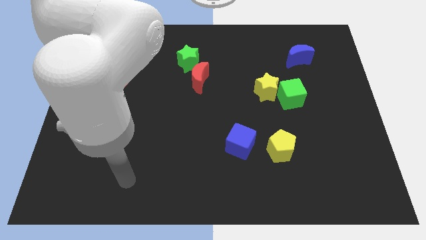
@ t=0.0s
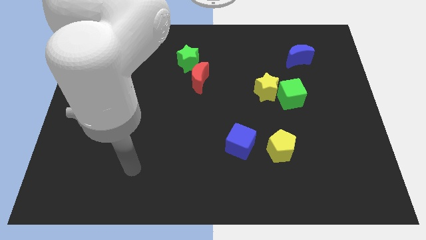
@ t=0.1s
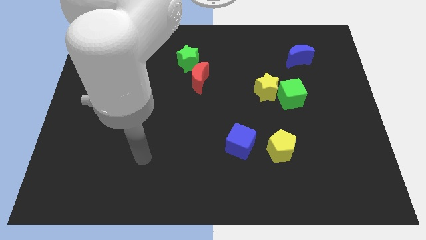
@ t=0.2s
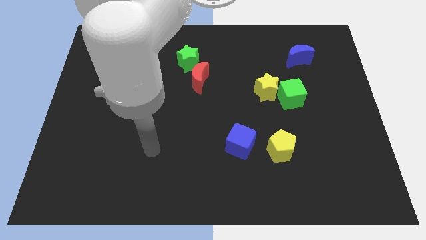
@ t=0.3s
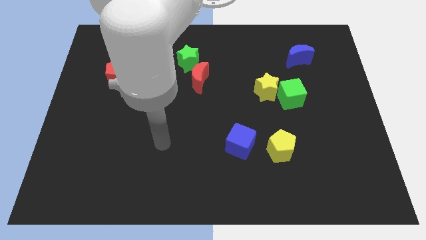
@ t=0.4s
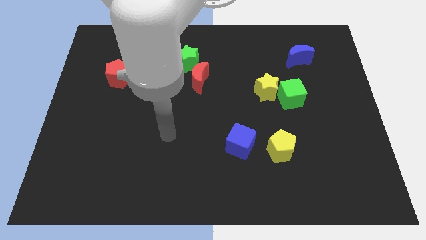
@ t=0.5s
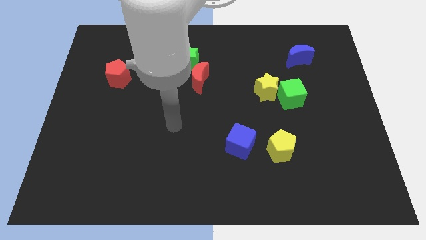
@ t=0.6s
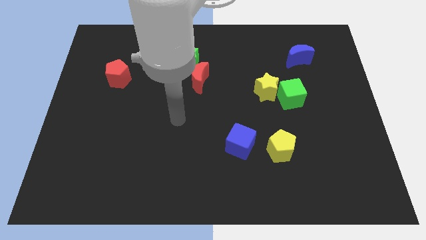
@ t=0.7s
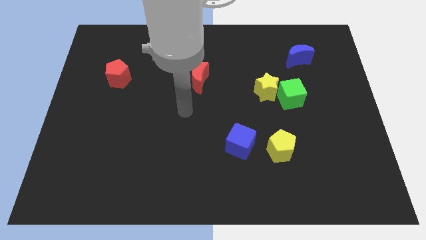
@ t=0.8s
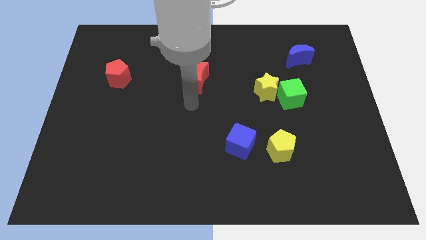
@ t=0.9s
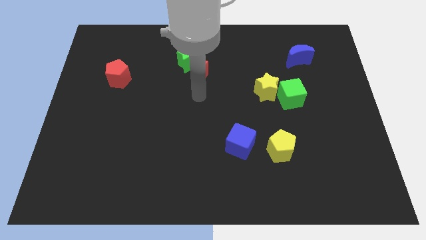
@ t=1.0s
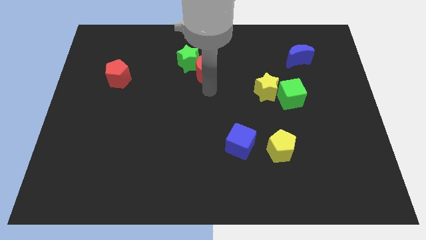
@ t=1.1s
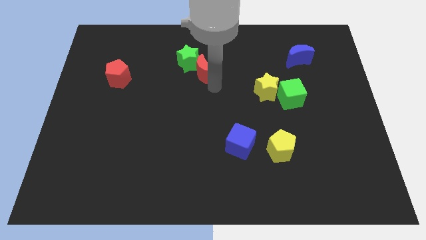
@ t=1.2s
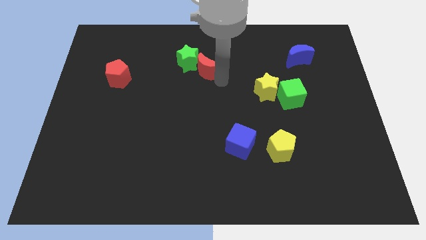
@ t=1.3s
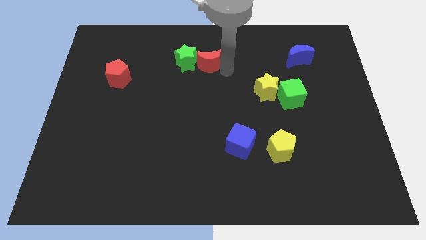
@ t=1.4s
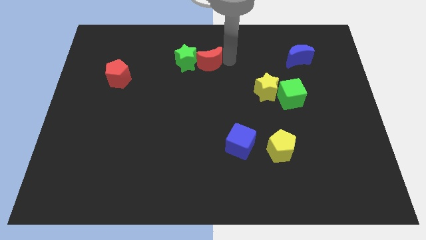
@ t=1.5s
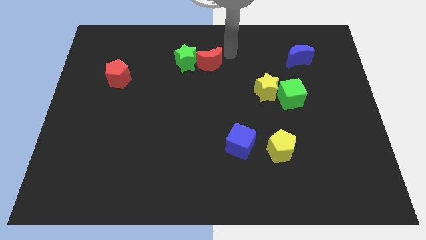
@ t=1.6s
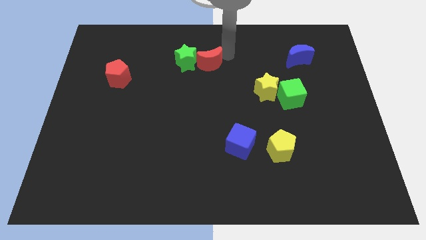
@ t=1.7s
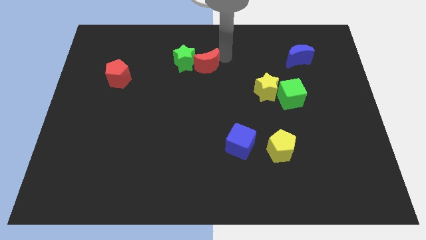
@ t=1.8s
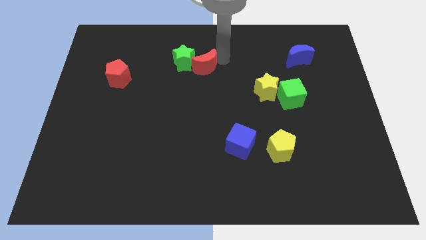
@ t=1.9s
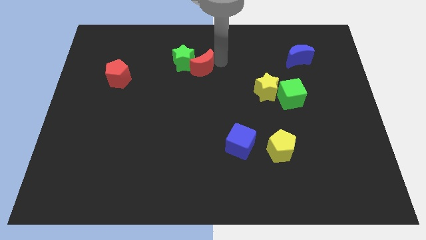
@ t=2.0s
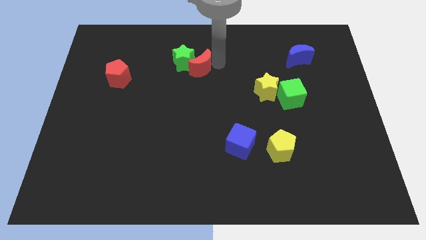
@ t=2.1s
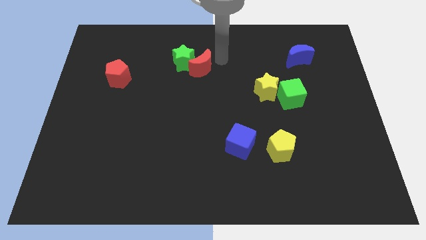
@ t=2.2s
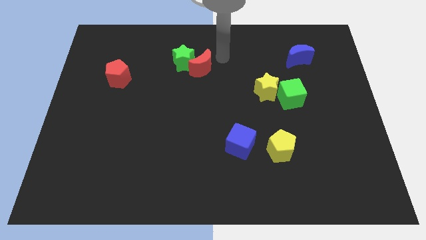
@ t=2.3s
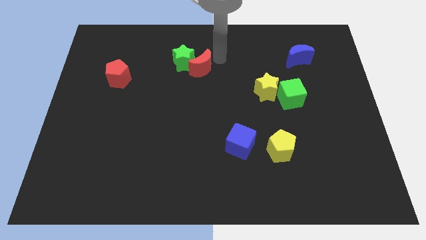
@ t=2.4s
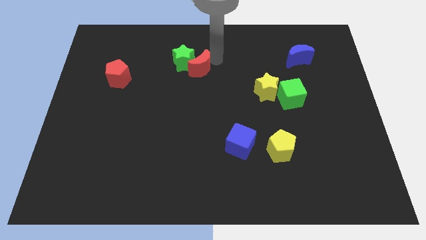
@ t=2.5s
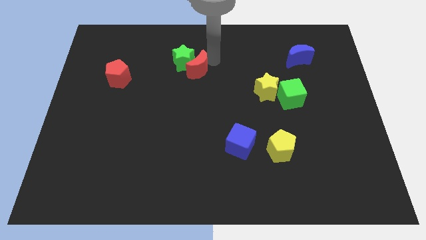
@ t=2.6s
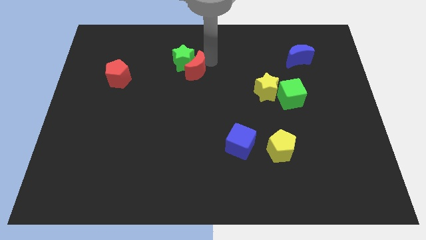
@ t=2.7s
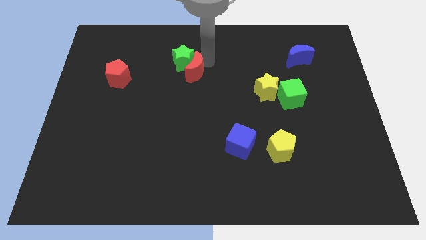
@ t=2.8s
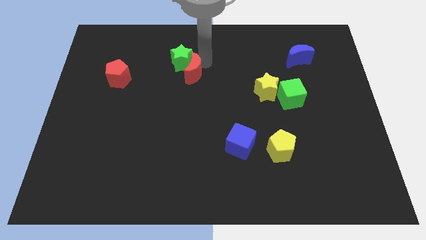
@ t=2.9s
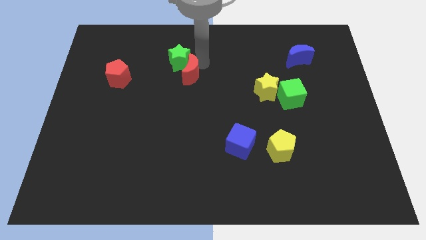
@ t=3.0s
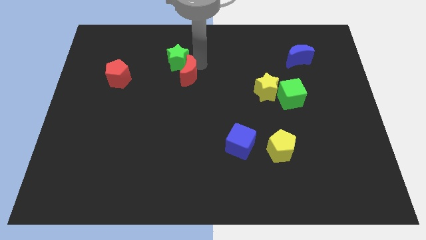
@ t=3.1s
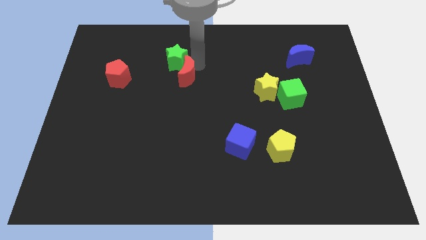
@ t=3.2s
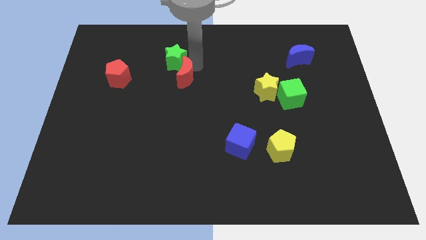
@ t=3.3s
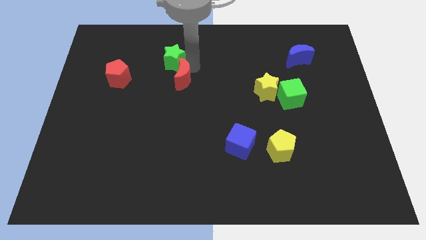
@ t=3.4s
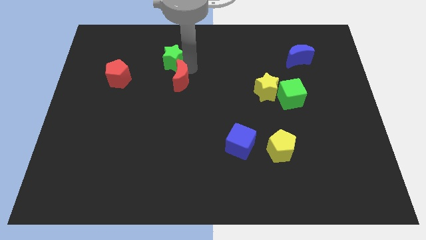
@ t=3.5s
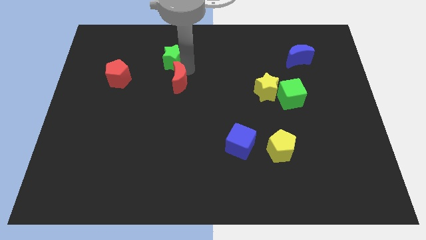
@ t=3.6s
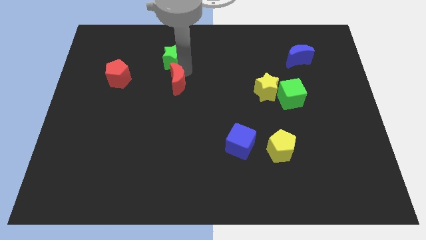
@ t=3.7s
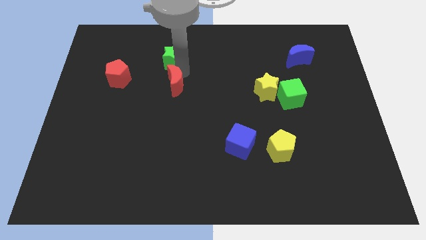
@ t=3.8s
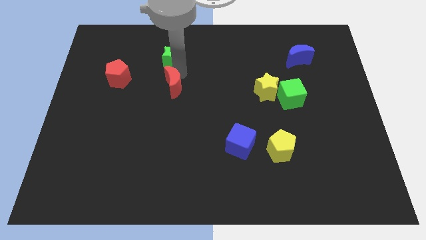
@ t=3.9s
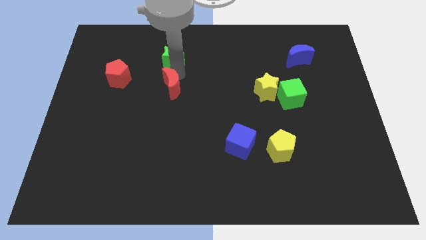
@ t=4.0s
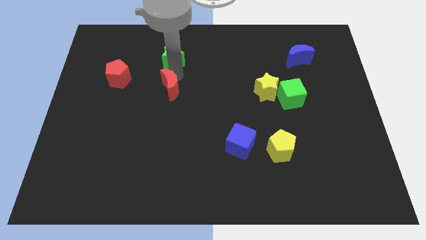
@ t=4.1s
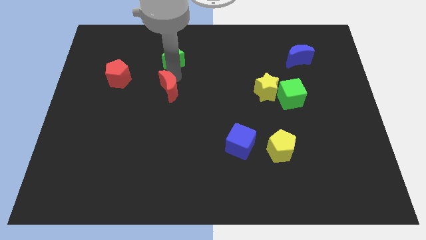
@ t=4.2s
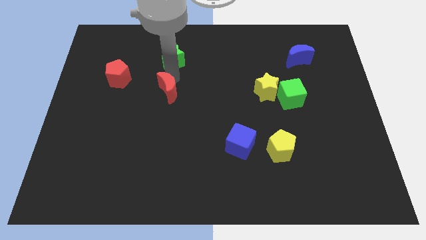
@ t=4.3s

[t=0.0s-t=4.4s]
push the red moon a little diagonally down and left

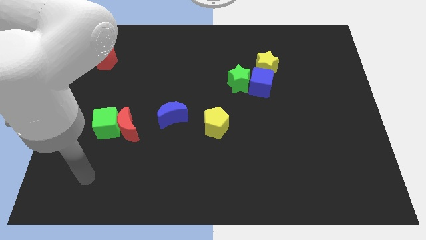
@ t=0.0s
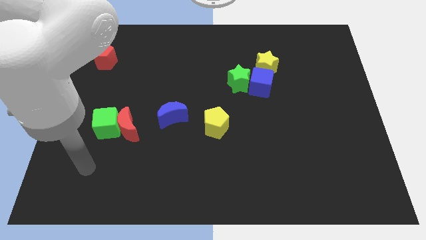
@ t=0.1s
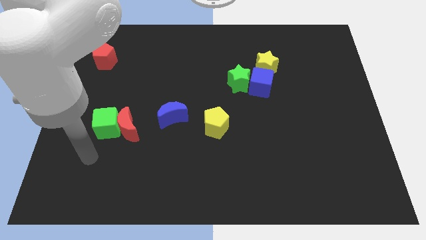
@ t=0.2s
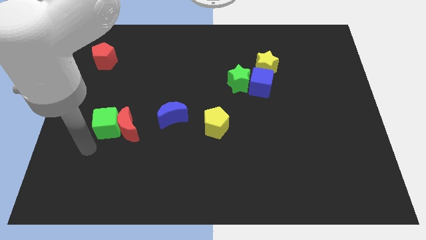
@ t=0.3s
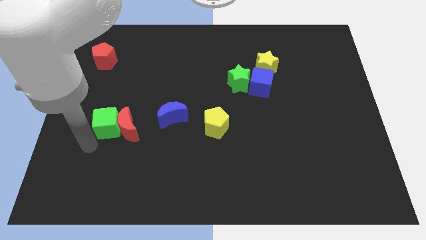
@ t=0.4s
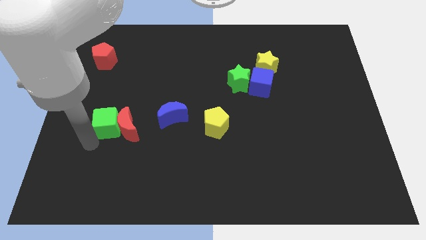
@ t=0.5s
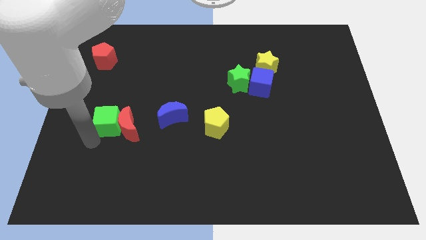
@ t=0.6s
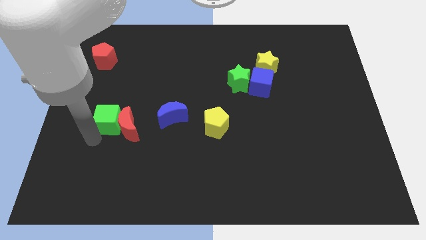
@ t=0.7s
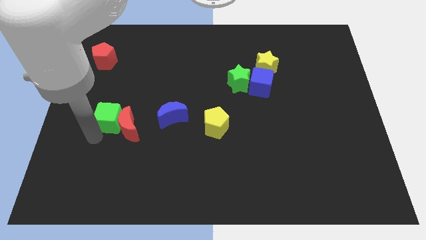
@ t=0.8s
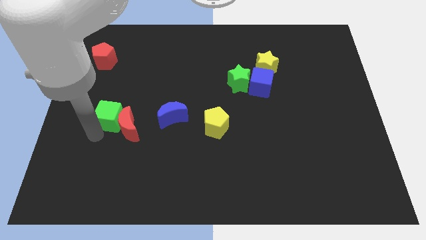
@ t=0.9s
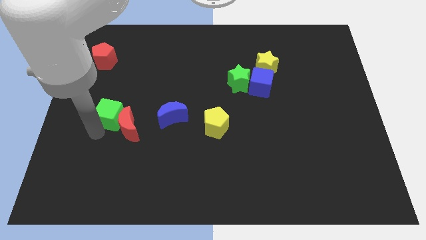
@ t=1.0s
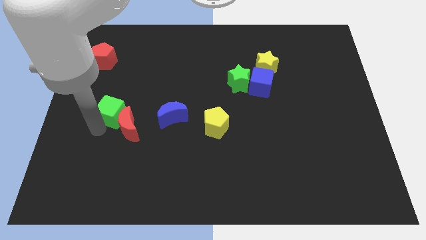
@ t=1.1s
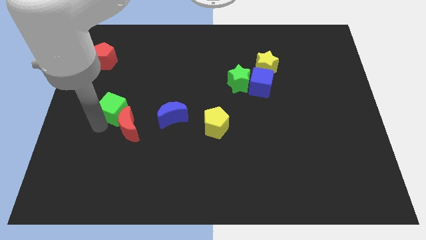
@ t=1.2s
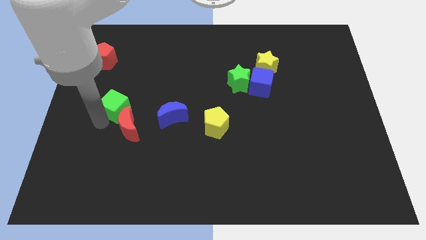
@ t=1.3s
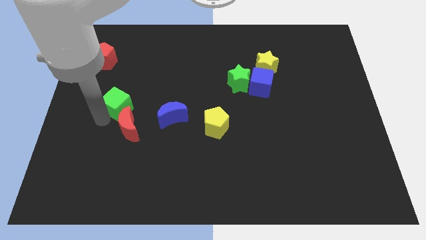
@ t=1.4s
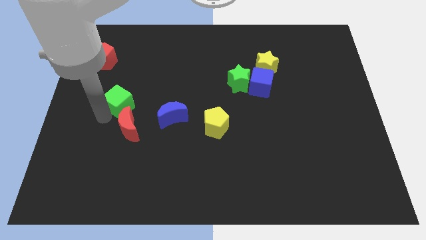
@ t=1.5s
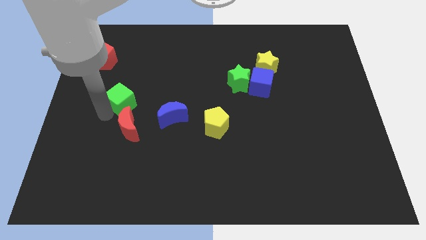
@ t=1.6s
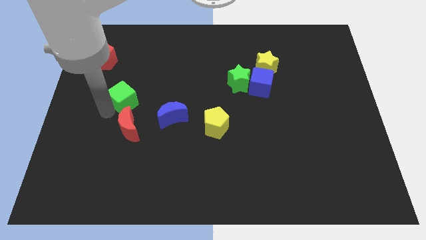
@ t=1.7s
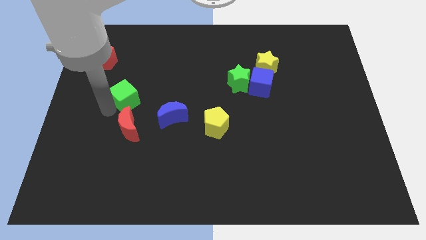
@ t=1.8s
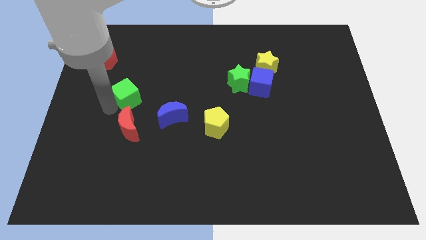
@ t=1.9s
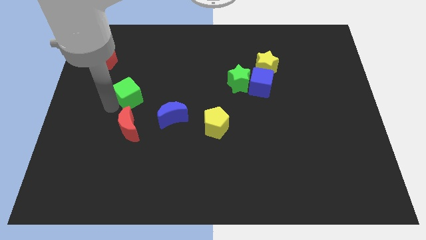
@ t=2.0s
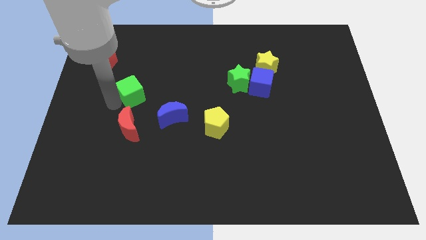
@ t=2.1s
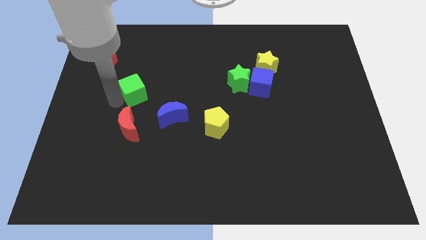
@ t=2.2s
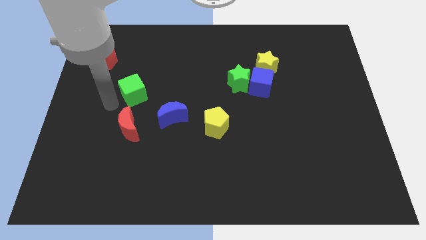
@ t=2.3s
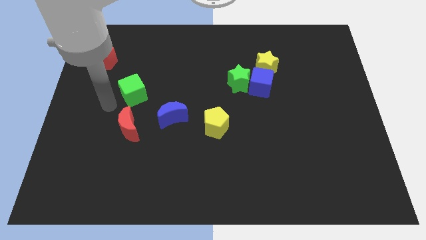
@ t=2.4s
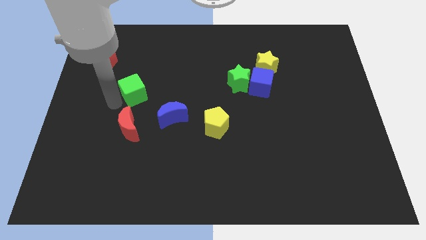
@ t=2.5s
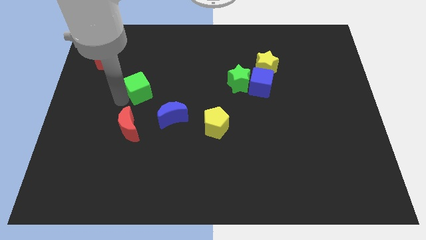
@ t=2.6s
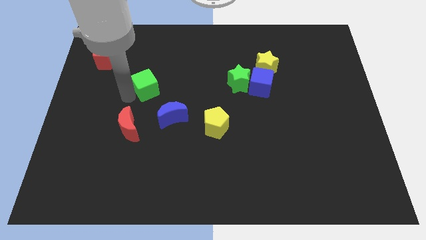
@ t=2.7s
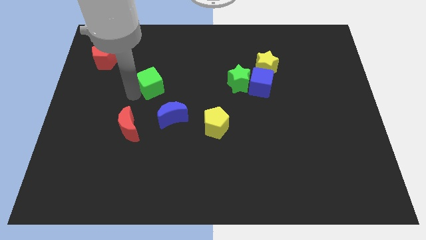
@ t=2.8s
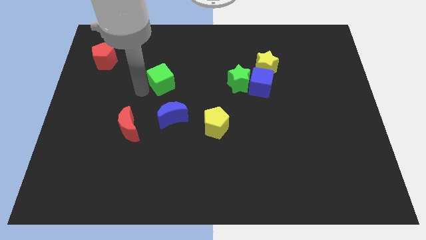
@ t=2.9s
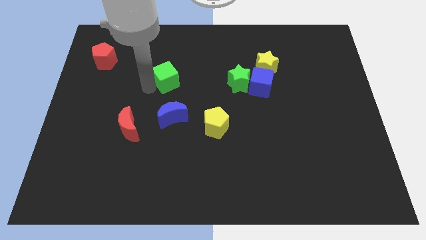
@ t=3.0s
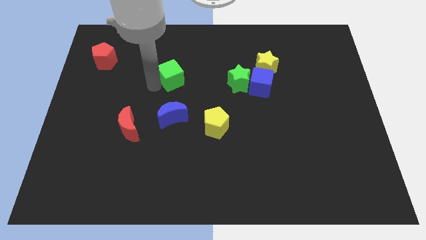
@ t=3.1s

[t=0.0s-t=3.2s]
push the green cube diagonally up and right
